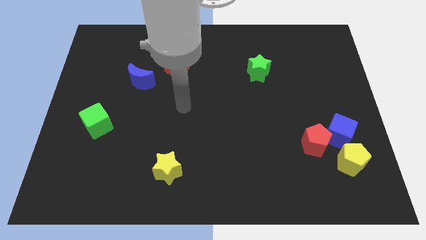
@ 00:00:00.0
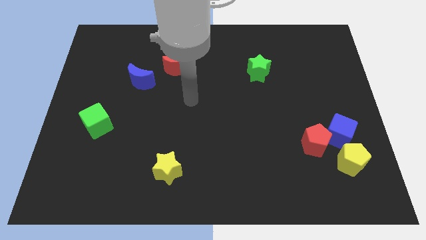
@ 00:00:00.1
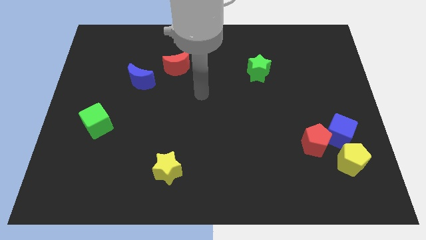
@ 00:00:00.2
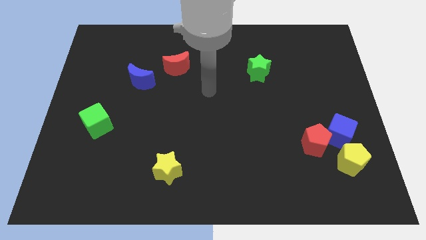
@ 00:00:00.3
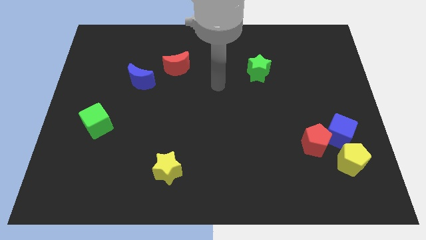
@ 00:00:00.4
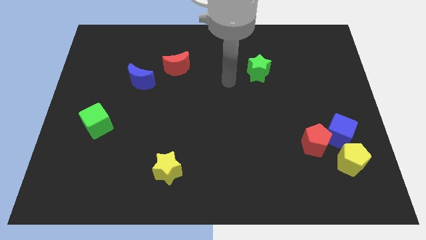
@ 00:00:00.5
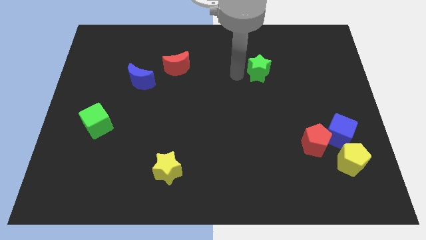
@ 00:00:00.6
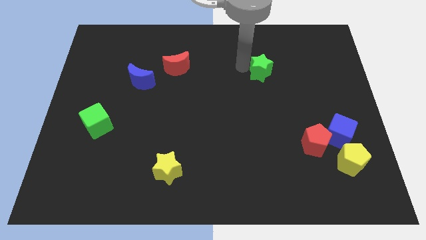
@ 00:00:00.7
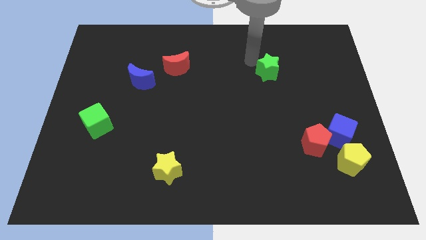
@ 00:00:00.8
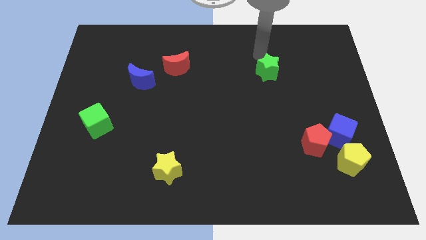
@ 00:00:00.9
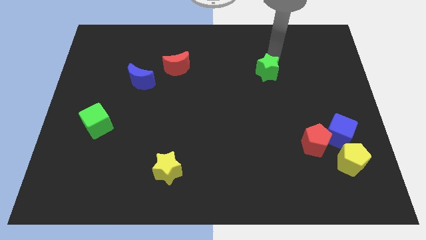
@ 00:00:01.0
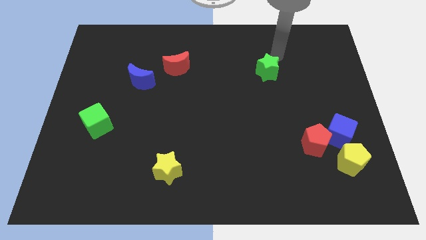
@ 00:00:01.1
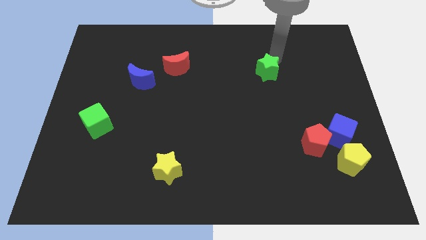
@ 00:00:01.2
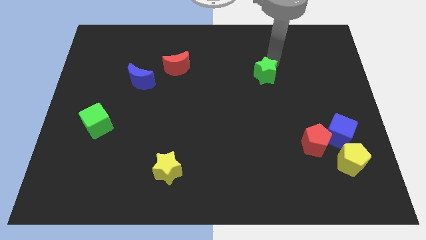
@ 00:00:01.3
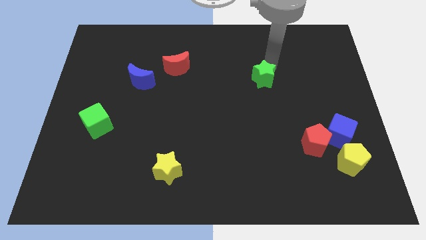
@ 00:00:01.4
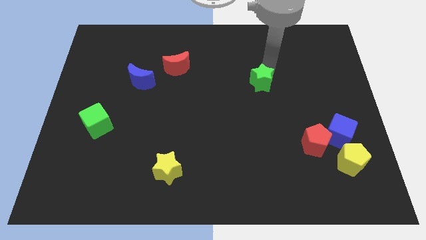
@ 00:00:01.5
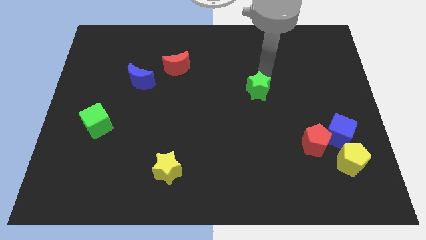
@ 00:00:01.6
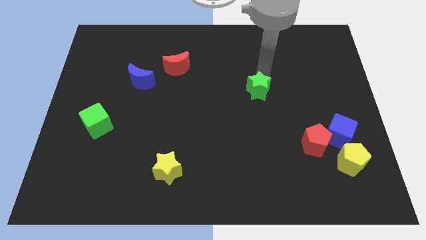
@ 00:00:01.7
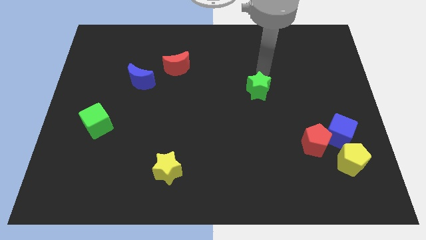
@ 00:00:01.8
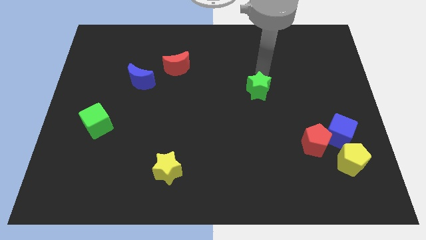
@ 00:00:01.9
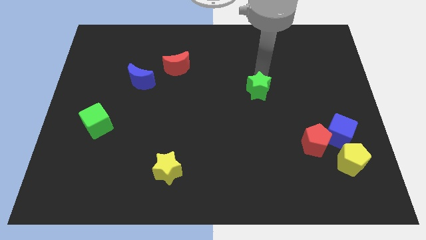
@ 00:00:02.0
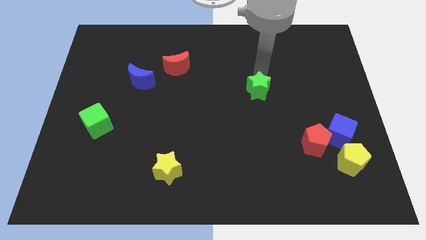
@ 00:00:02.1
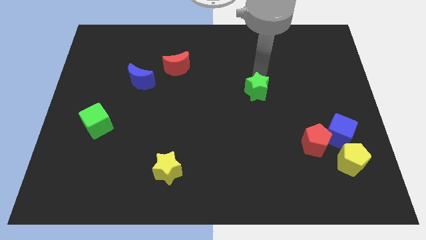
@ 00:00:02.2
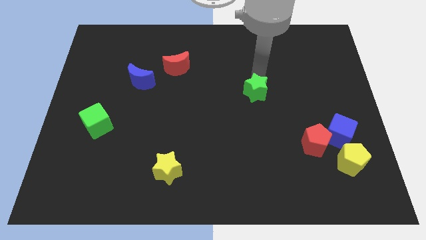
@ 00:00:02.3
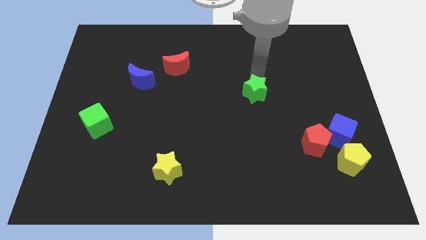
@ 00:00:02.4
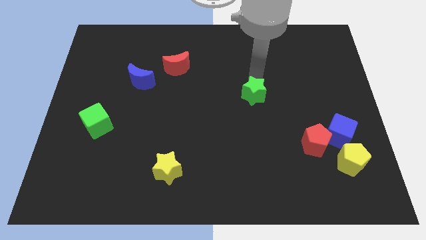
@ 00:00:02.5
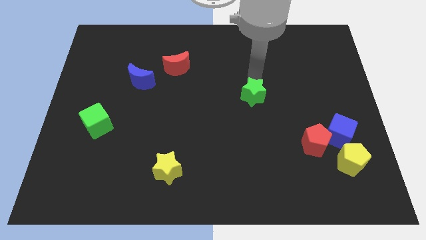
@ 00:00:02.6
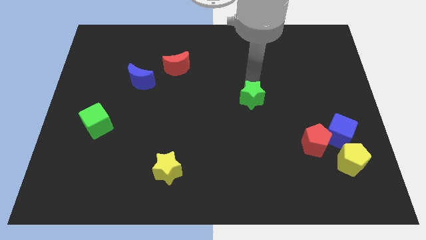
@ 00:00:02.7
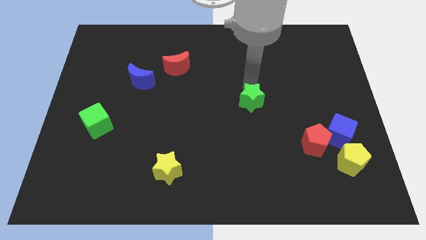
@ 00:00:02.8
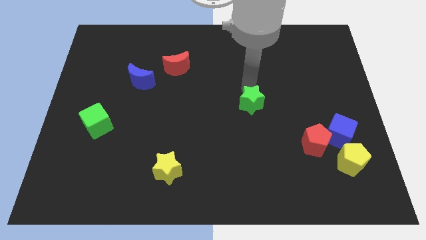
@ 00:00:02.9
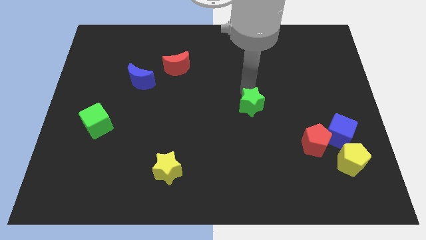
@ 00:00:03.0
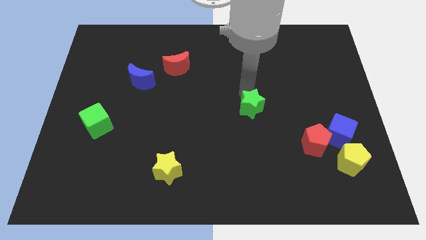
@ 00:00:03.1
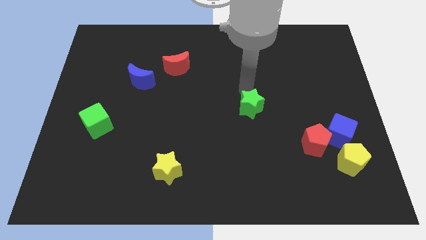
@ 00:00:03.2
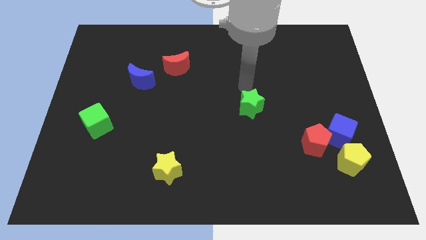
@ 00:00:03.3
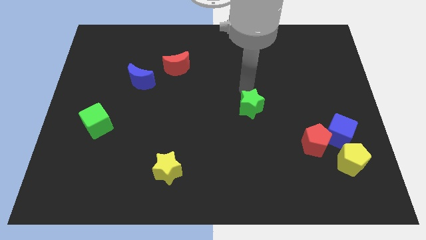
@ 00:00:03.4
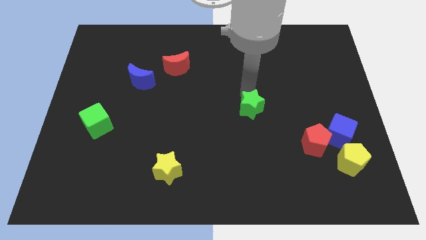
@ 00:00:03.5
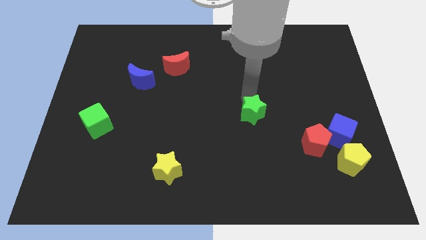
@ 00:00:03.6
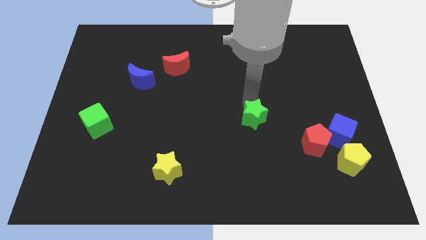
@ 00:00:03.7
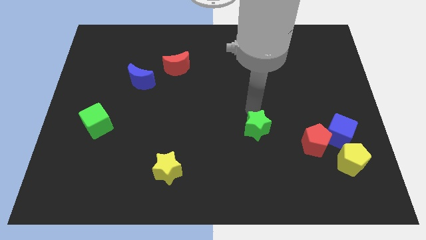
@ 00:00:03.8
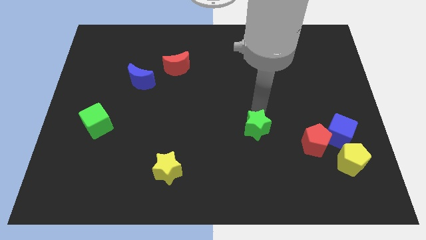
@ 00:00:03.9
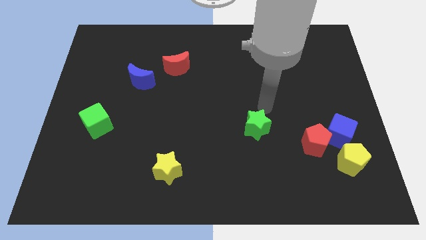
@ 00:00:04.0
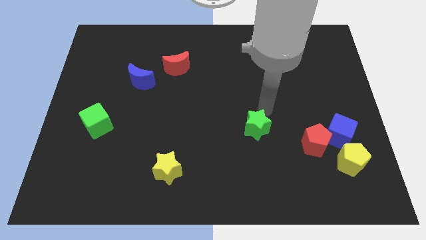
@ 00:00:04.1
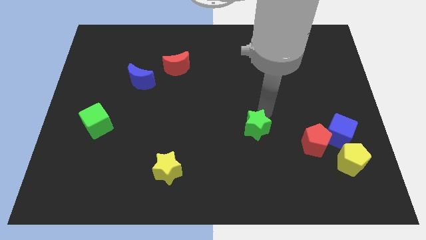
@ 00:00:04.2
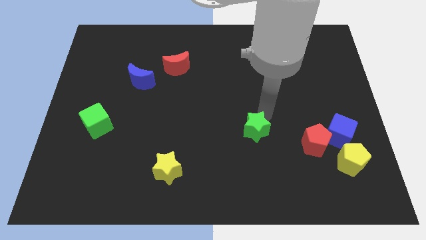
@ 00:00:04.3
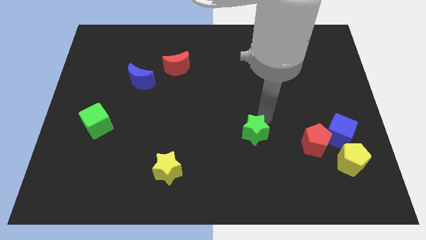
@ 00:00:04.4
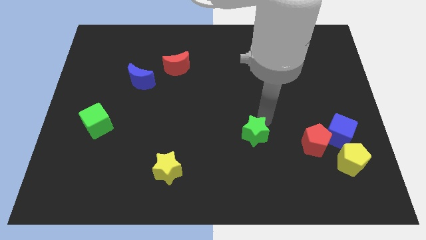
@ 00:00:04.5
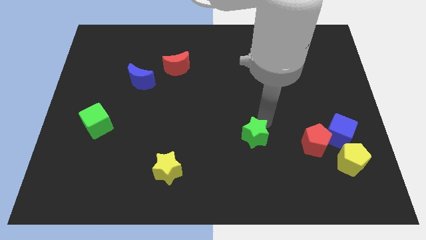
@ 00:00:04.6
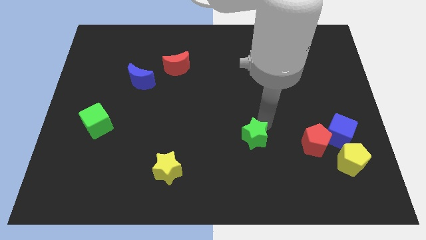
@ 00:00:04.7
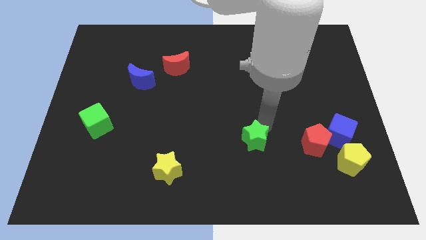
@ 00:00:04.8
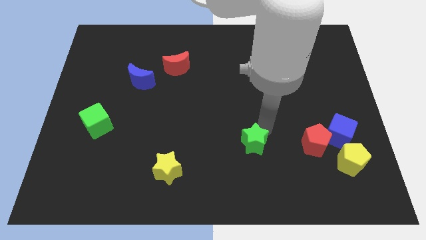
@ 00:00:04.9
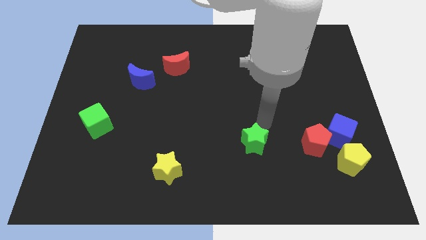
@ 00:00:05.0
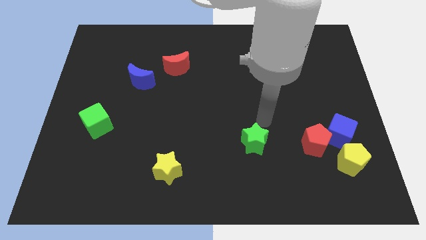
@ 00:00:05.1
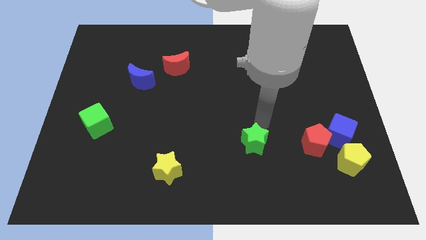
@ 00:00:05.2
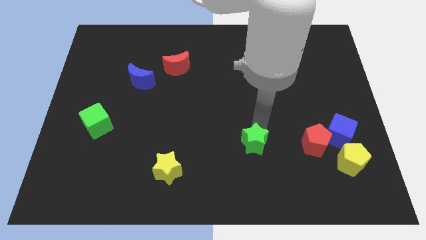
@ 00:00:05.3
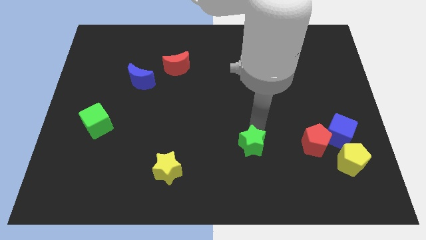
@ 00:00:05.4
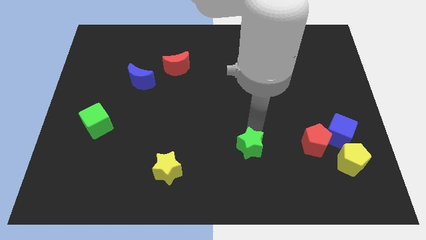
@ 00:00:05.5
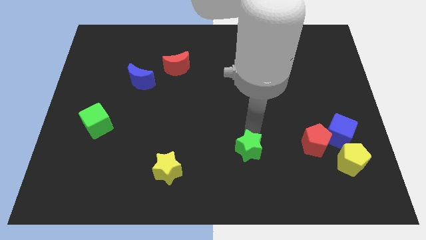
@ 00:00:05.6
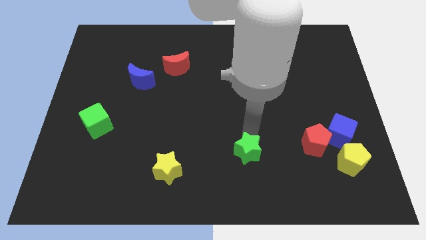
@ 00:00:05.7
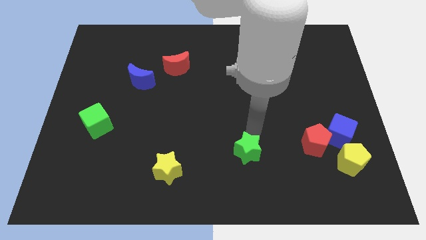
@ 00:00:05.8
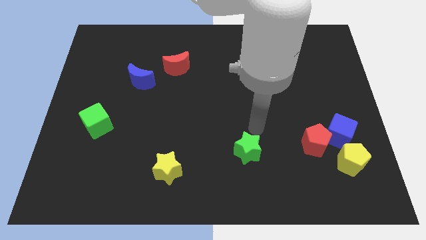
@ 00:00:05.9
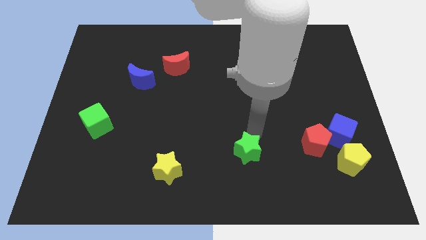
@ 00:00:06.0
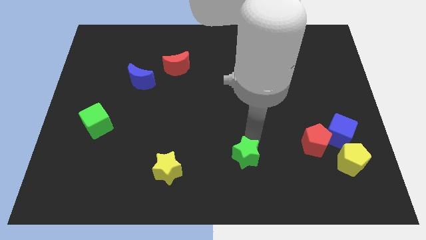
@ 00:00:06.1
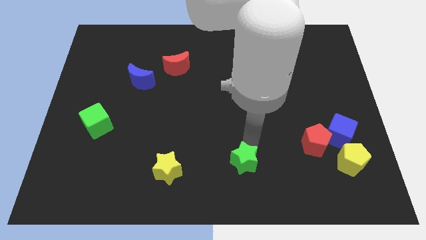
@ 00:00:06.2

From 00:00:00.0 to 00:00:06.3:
slide the green star to the bottom

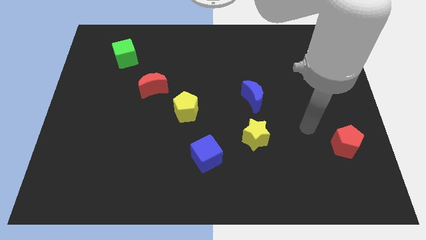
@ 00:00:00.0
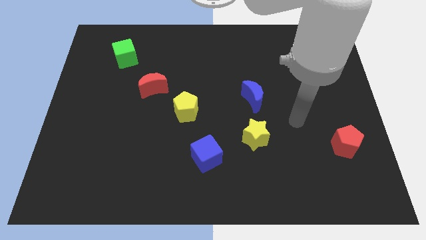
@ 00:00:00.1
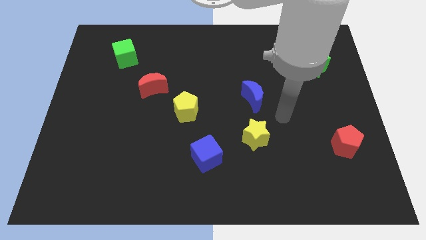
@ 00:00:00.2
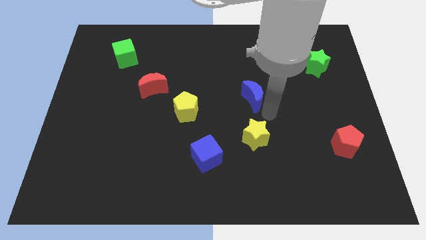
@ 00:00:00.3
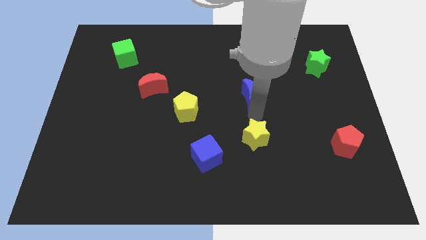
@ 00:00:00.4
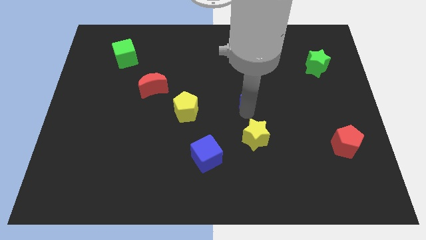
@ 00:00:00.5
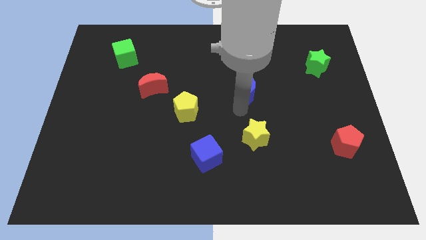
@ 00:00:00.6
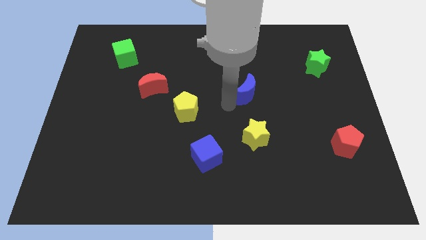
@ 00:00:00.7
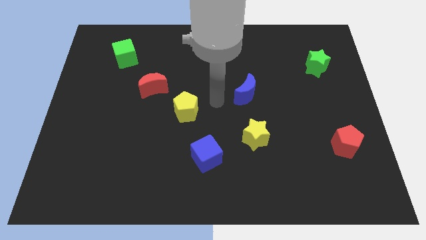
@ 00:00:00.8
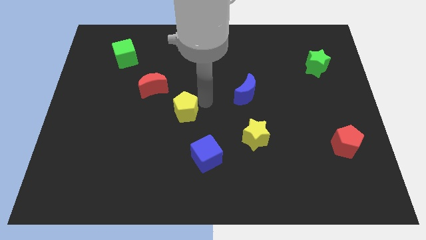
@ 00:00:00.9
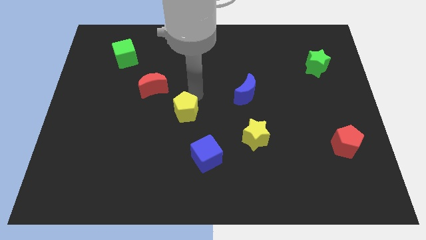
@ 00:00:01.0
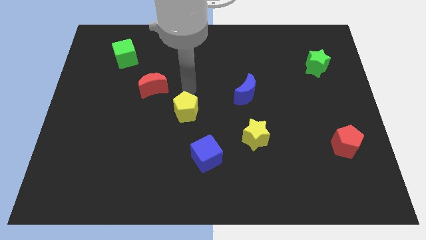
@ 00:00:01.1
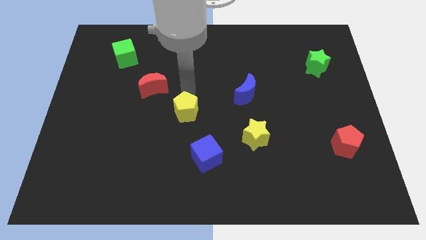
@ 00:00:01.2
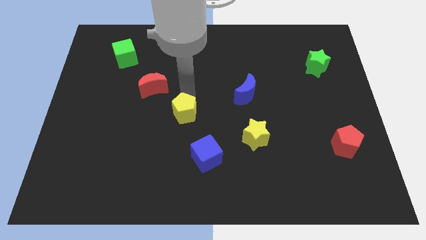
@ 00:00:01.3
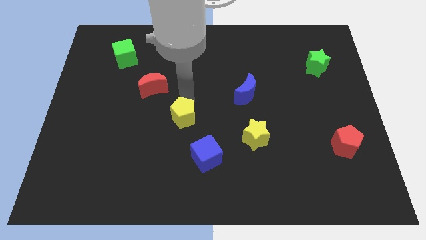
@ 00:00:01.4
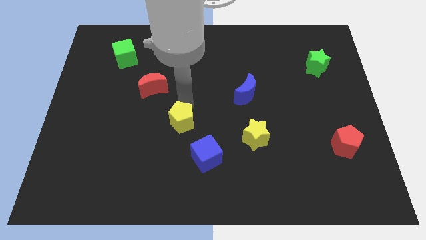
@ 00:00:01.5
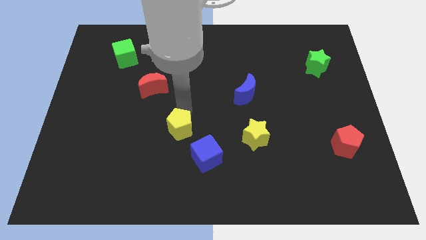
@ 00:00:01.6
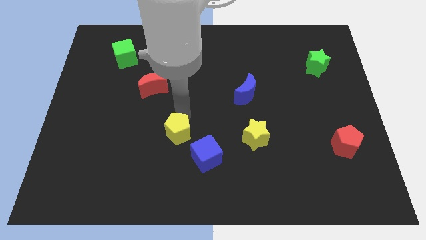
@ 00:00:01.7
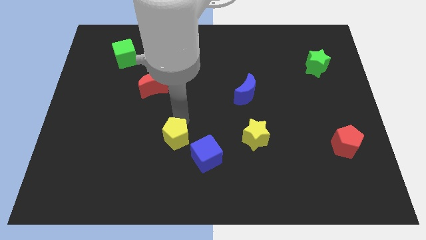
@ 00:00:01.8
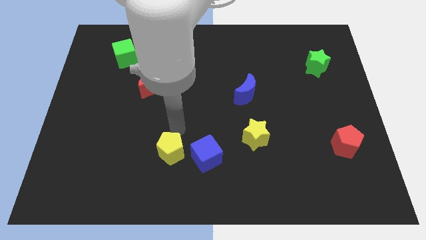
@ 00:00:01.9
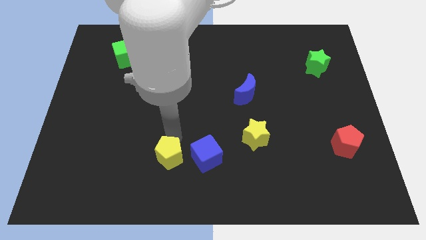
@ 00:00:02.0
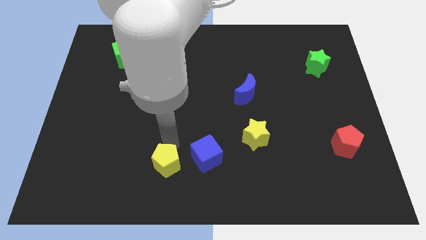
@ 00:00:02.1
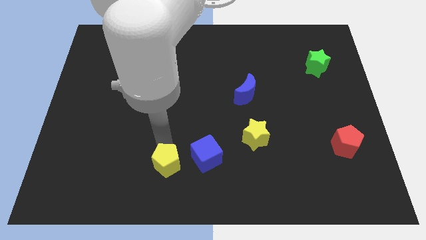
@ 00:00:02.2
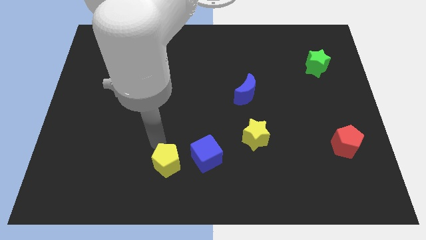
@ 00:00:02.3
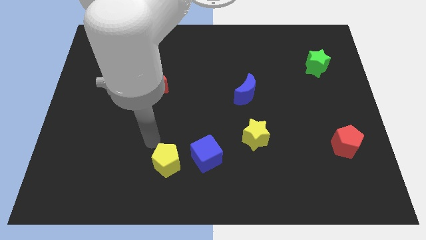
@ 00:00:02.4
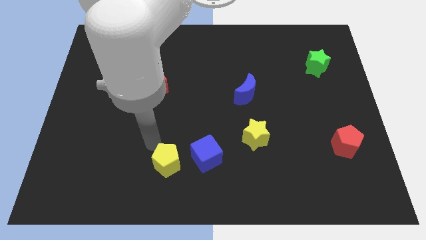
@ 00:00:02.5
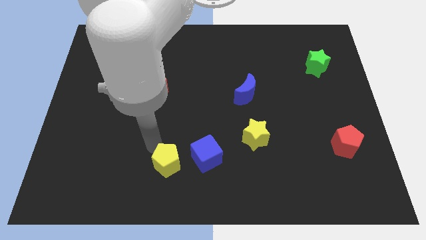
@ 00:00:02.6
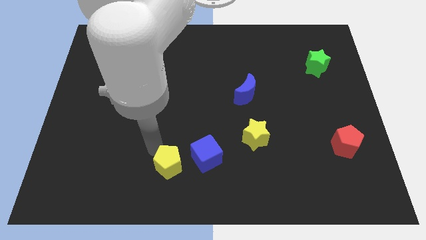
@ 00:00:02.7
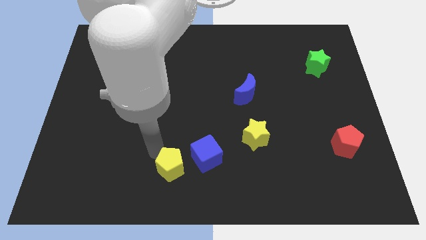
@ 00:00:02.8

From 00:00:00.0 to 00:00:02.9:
put the yellow pentagon to the bottom
